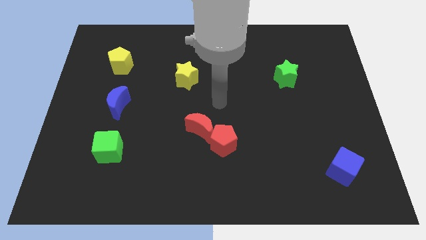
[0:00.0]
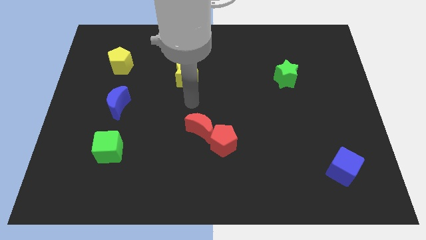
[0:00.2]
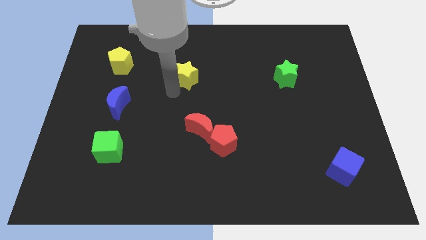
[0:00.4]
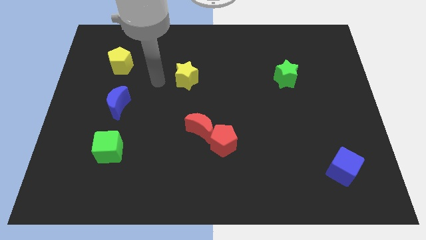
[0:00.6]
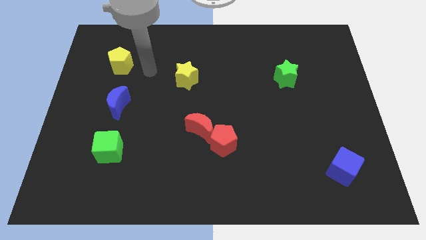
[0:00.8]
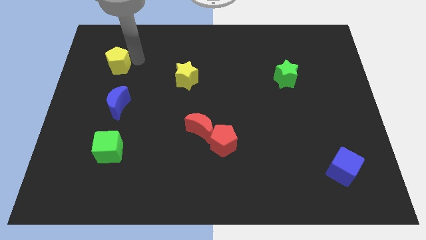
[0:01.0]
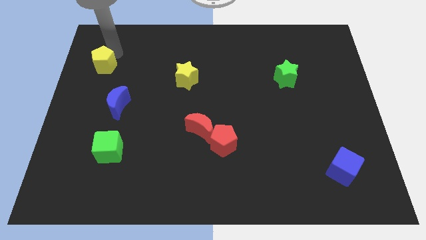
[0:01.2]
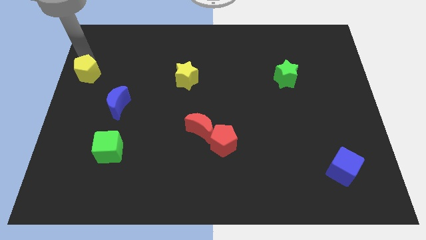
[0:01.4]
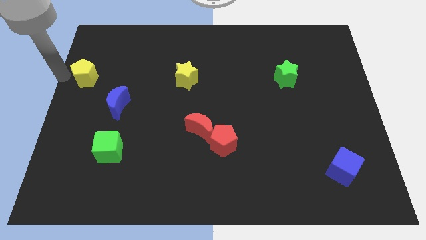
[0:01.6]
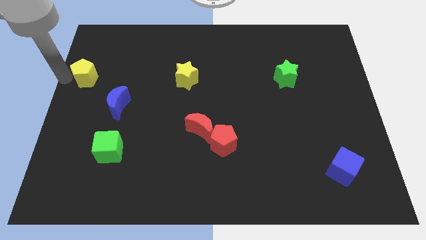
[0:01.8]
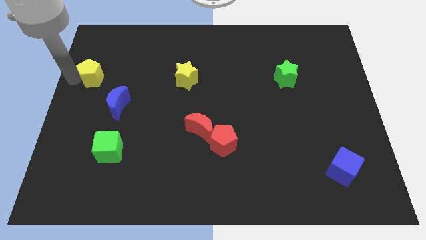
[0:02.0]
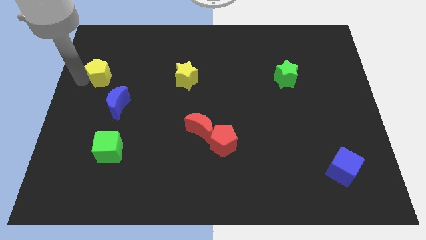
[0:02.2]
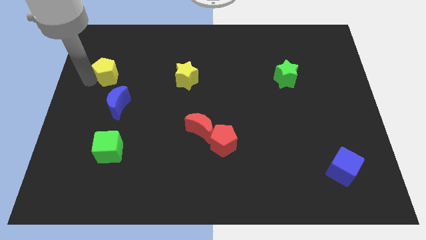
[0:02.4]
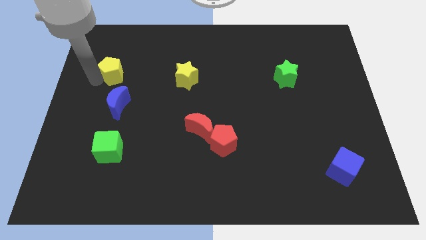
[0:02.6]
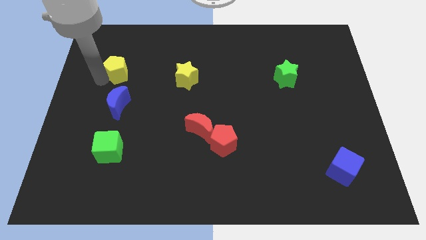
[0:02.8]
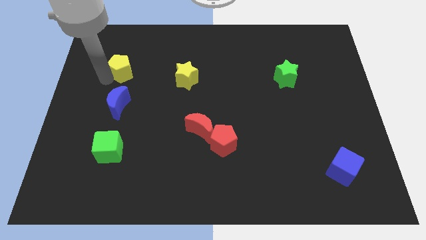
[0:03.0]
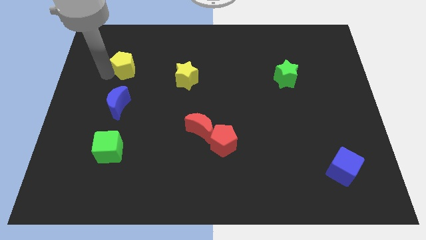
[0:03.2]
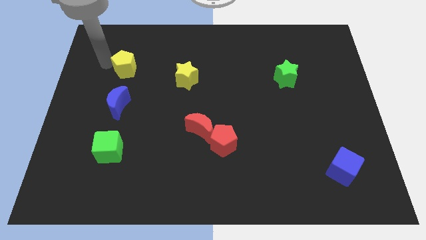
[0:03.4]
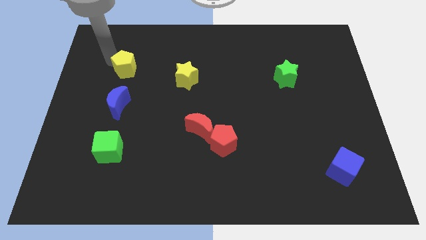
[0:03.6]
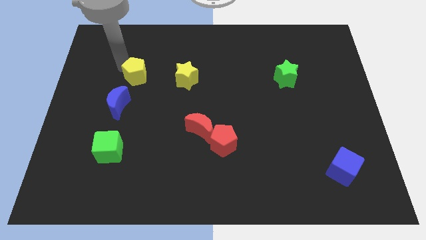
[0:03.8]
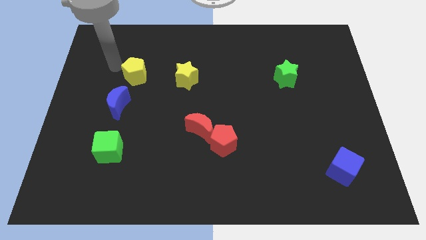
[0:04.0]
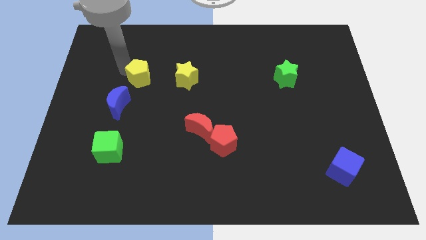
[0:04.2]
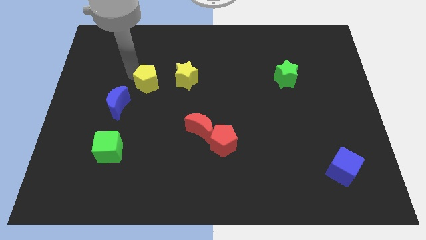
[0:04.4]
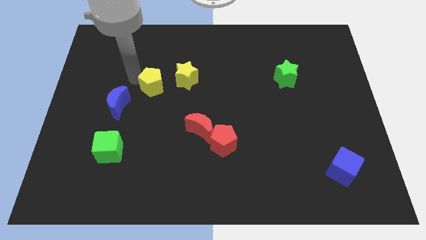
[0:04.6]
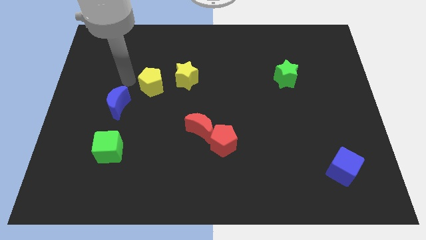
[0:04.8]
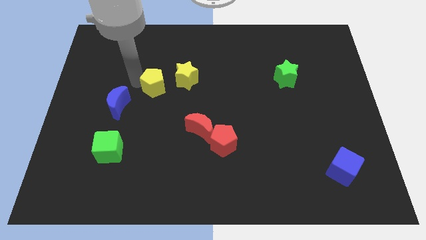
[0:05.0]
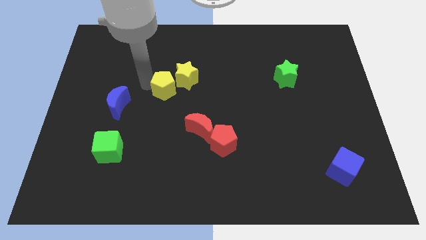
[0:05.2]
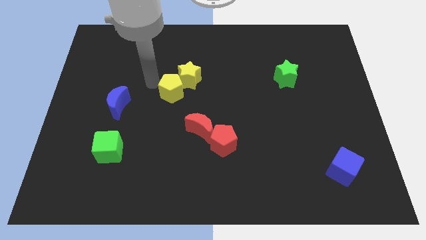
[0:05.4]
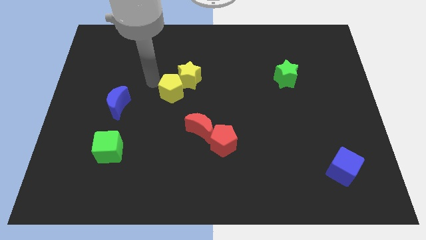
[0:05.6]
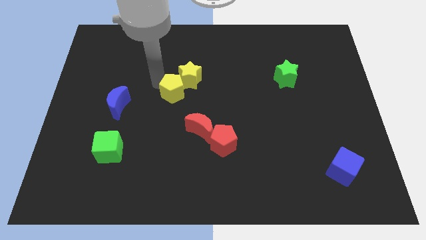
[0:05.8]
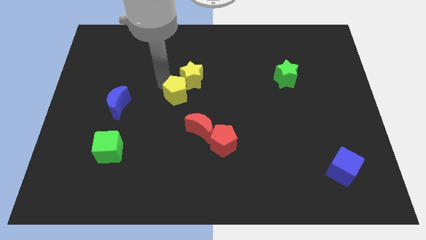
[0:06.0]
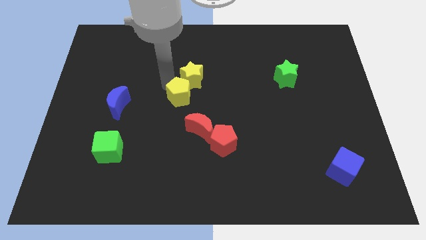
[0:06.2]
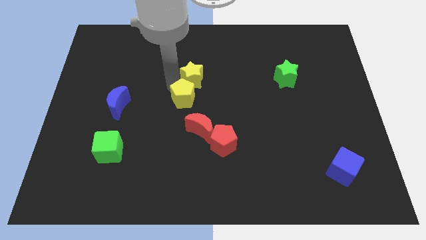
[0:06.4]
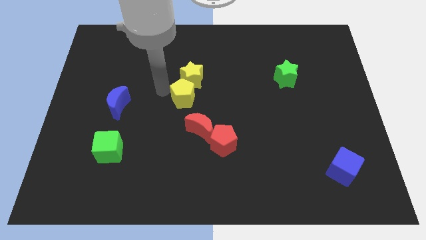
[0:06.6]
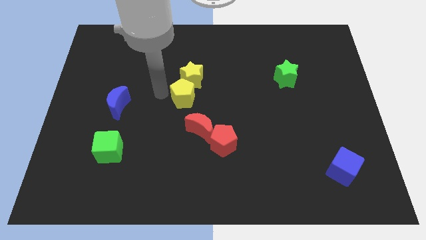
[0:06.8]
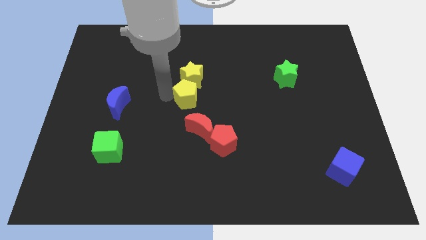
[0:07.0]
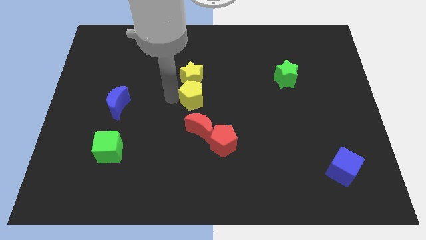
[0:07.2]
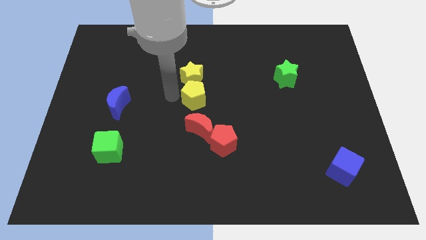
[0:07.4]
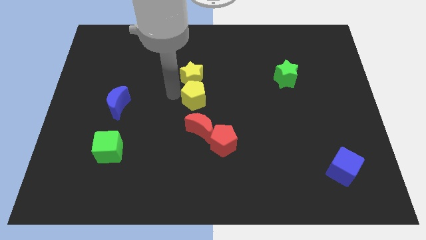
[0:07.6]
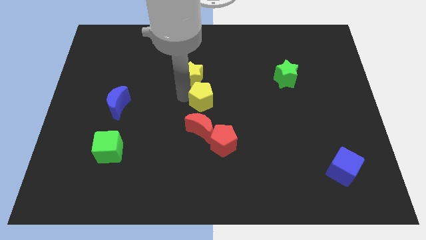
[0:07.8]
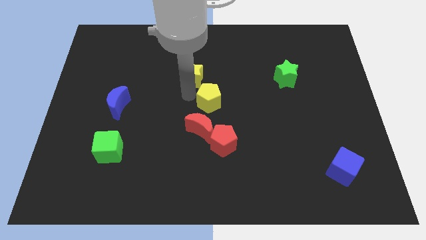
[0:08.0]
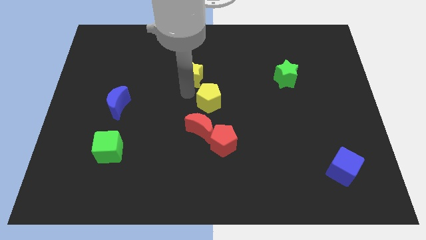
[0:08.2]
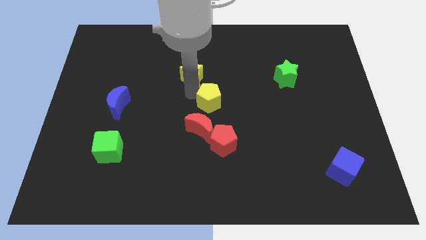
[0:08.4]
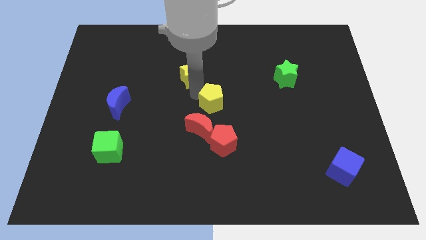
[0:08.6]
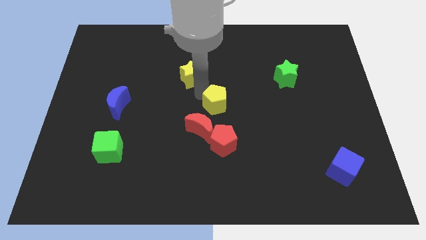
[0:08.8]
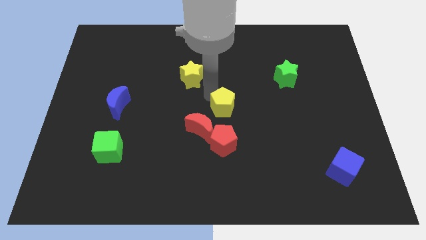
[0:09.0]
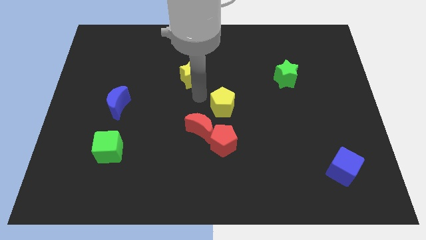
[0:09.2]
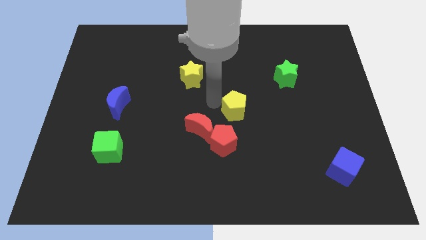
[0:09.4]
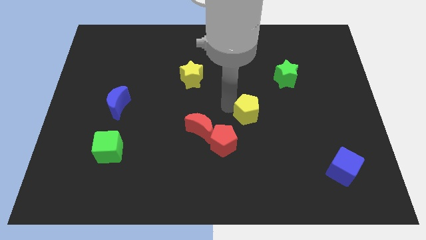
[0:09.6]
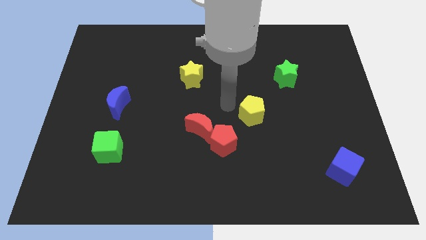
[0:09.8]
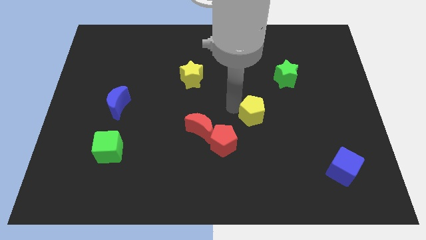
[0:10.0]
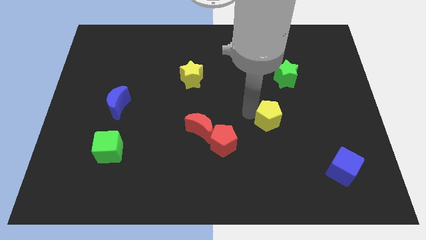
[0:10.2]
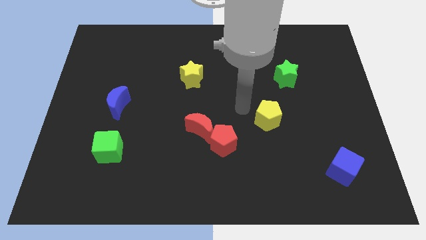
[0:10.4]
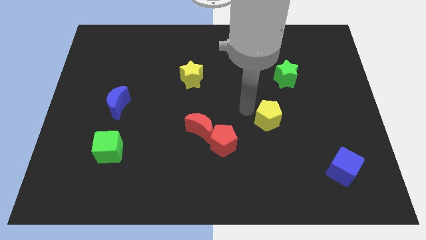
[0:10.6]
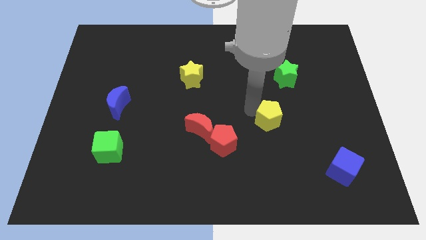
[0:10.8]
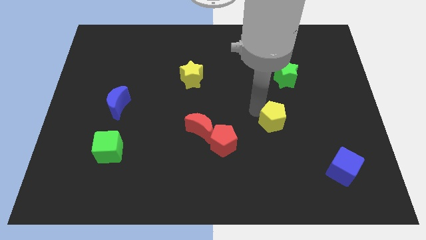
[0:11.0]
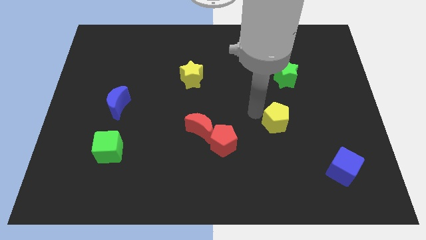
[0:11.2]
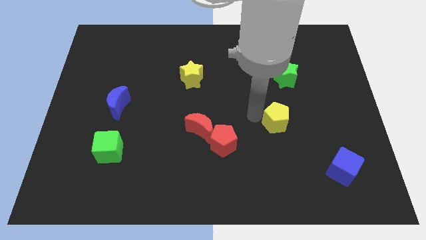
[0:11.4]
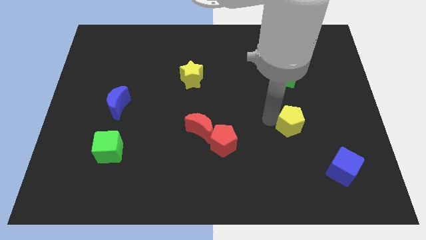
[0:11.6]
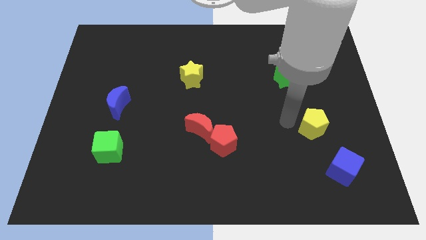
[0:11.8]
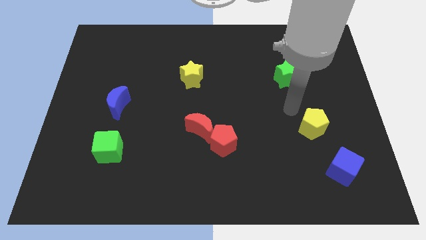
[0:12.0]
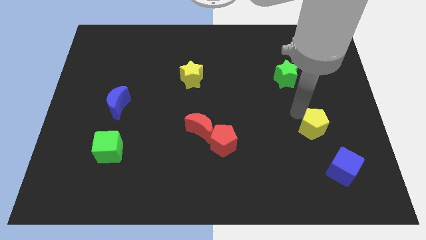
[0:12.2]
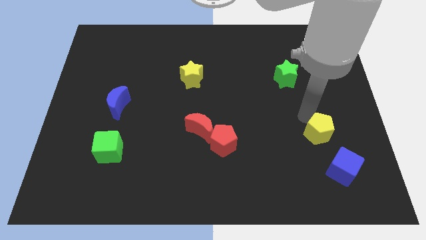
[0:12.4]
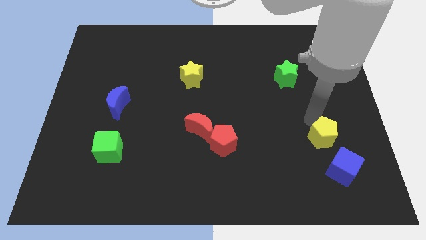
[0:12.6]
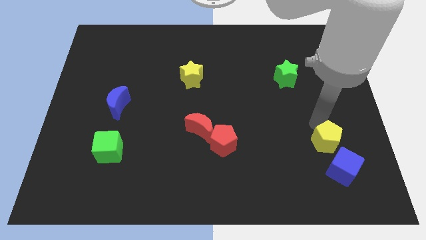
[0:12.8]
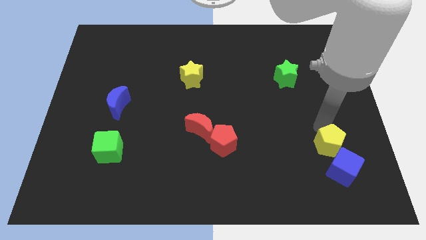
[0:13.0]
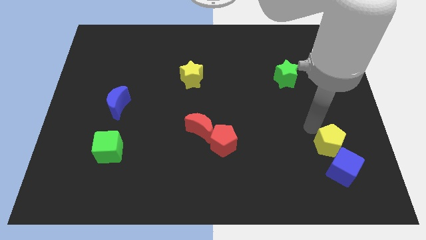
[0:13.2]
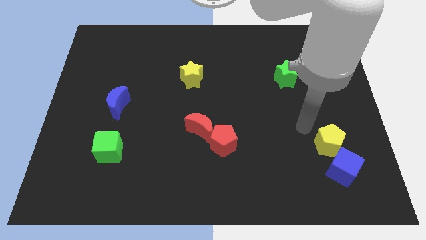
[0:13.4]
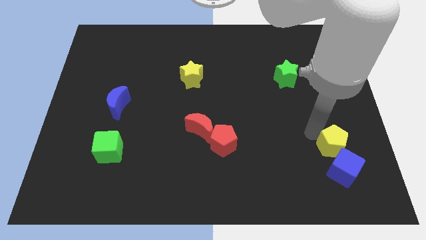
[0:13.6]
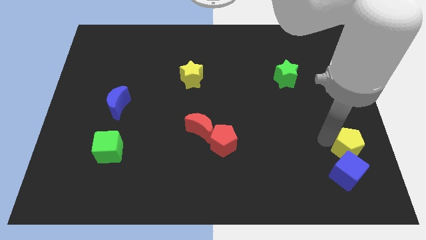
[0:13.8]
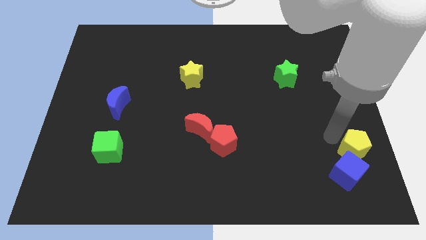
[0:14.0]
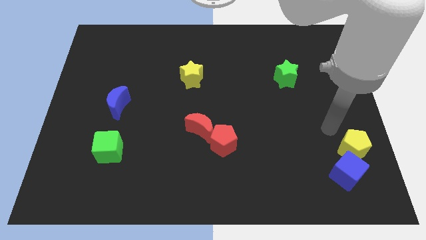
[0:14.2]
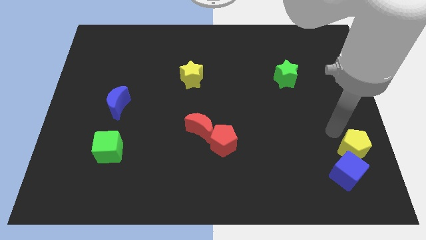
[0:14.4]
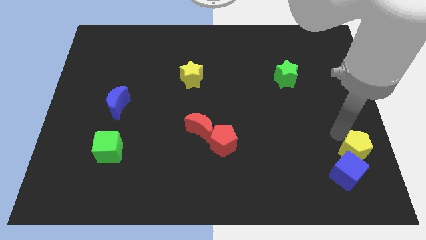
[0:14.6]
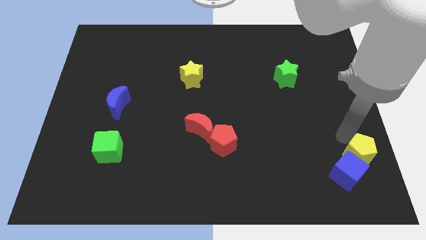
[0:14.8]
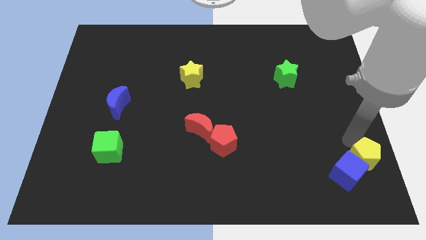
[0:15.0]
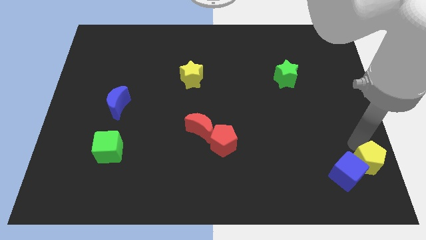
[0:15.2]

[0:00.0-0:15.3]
push the yellow pentagon to the bottom right
